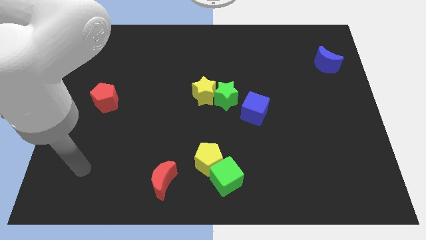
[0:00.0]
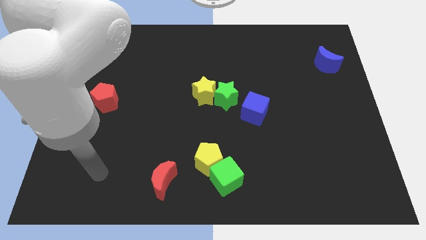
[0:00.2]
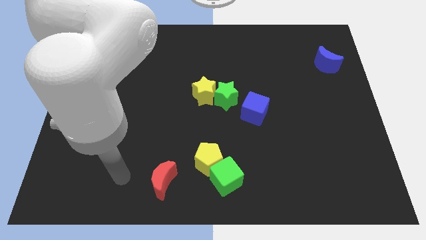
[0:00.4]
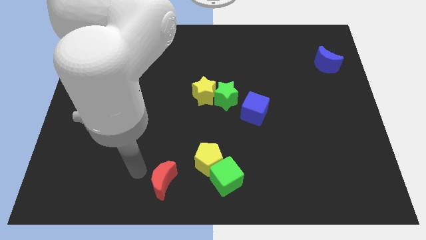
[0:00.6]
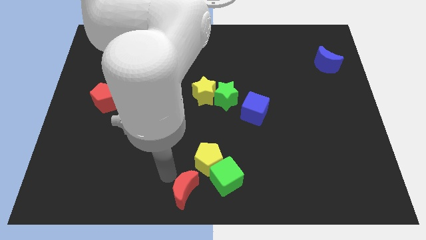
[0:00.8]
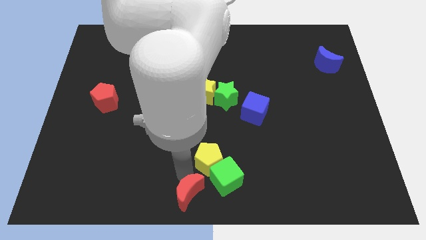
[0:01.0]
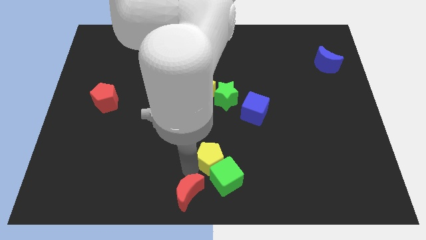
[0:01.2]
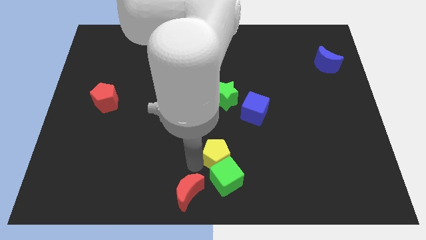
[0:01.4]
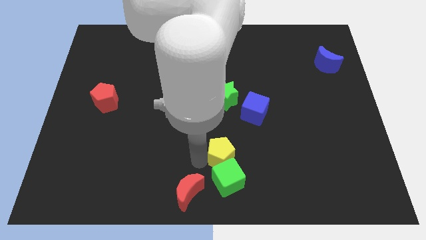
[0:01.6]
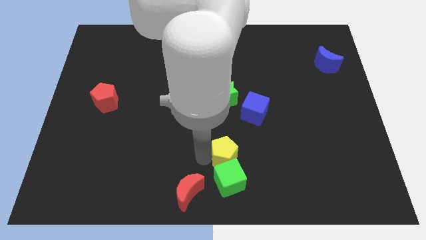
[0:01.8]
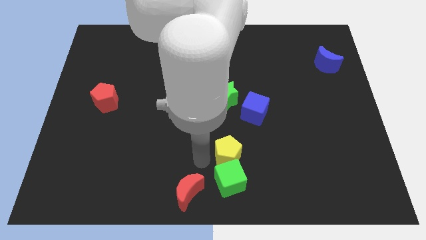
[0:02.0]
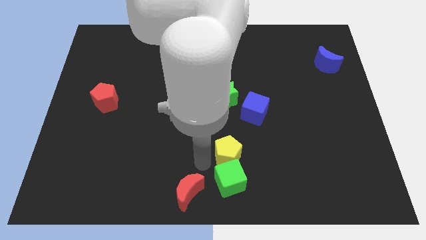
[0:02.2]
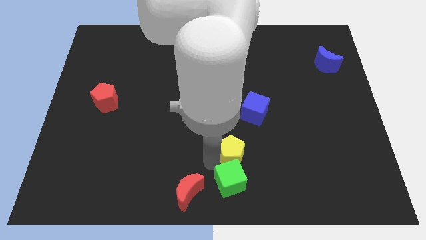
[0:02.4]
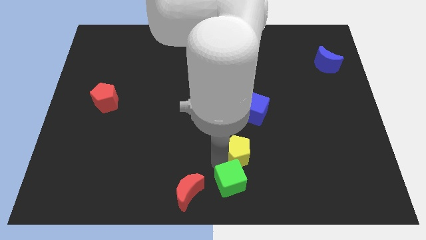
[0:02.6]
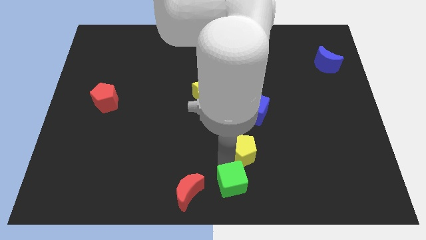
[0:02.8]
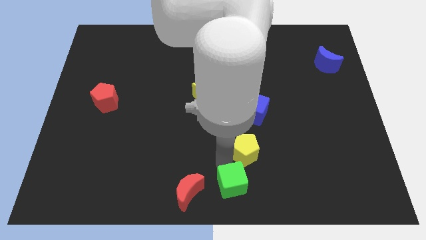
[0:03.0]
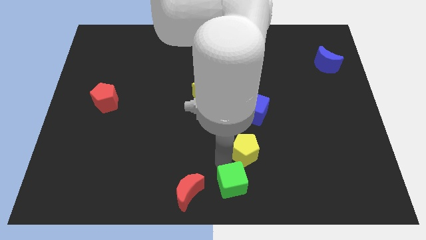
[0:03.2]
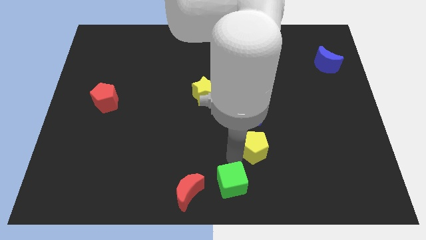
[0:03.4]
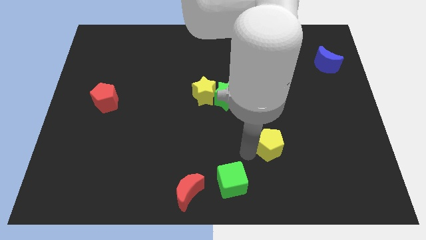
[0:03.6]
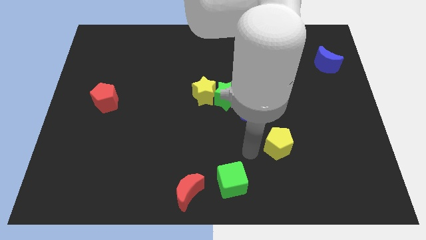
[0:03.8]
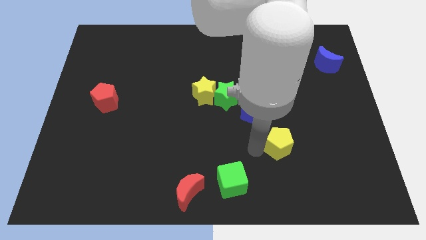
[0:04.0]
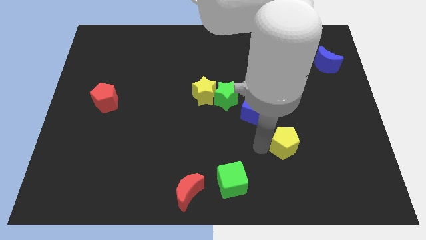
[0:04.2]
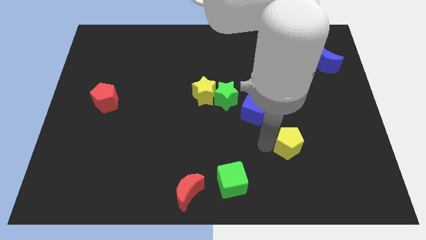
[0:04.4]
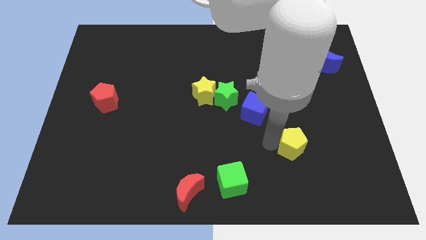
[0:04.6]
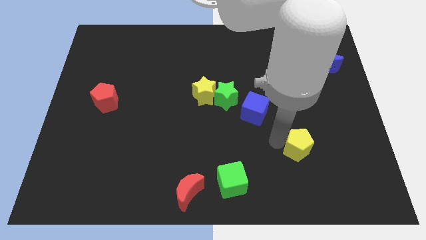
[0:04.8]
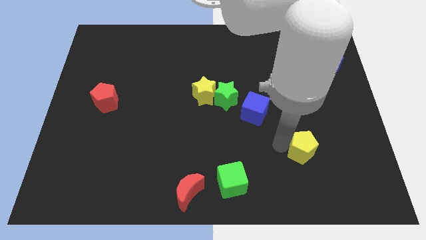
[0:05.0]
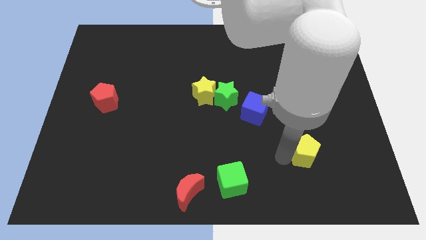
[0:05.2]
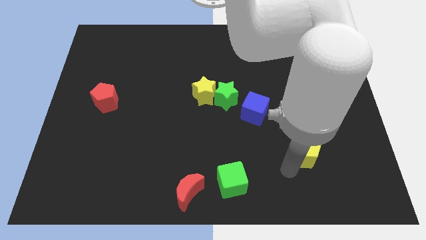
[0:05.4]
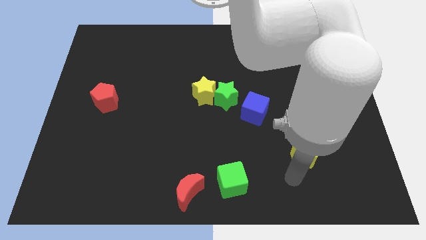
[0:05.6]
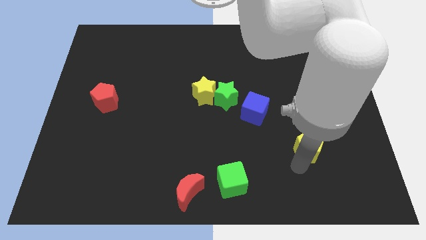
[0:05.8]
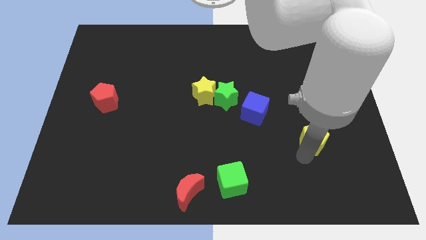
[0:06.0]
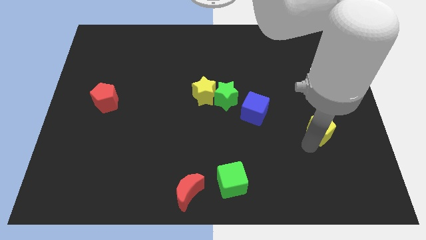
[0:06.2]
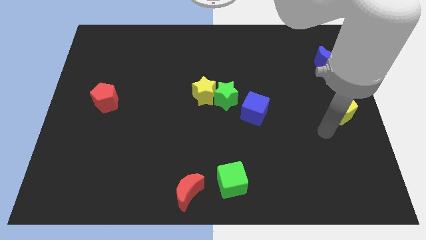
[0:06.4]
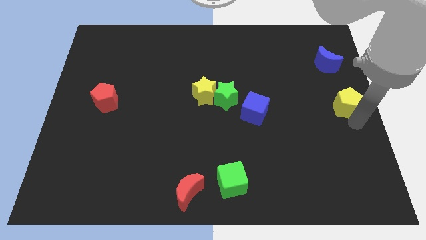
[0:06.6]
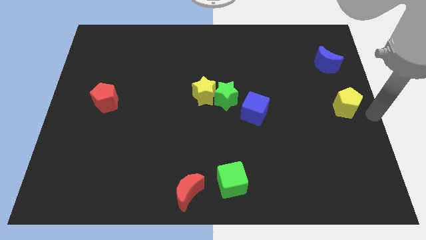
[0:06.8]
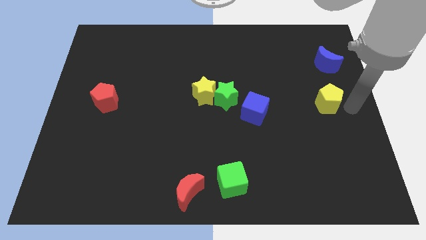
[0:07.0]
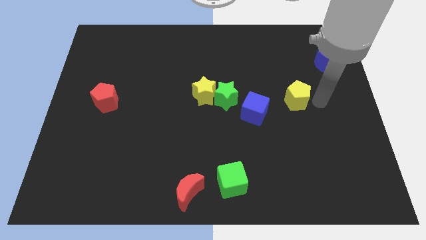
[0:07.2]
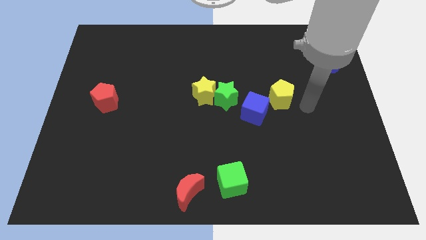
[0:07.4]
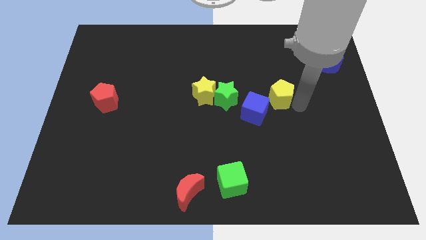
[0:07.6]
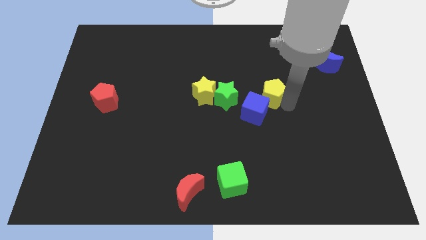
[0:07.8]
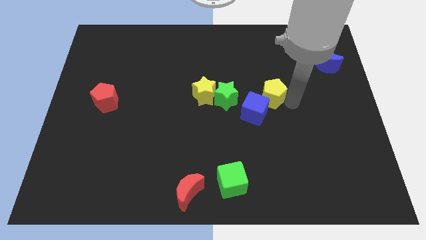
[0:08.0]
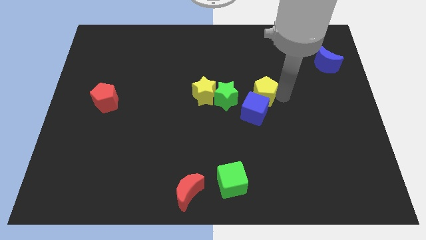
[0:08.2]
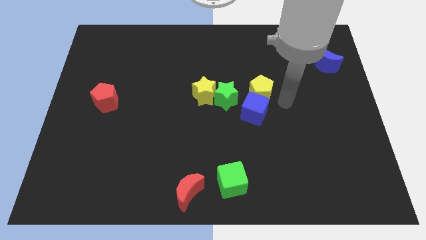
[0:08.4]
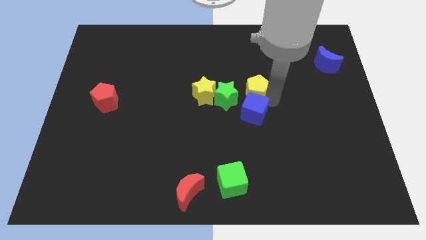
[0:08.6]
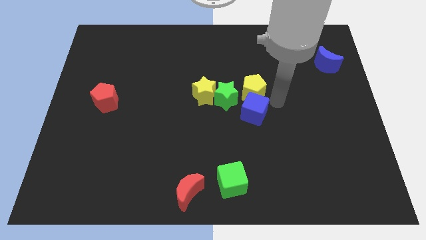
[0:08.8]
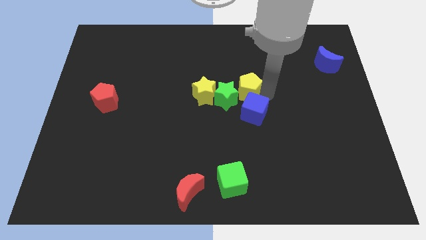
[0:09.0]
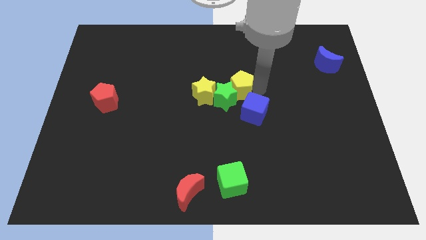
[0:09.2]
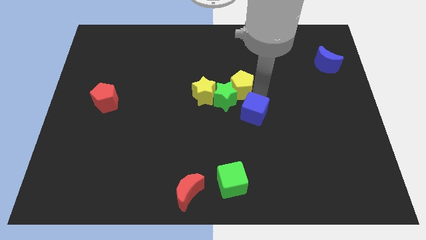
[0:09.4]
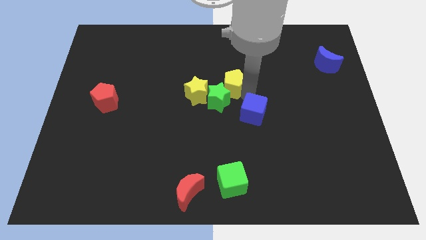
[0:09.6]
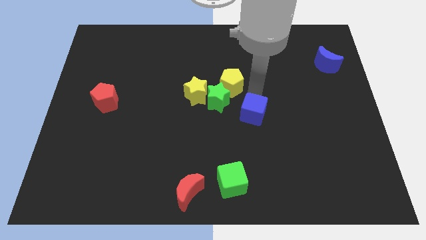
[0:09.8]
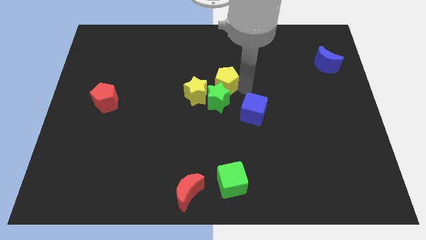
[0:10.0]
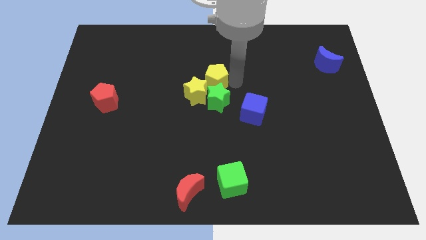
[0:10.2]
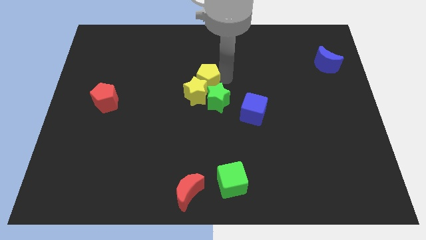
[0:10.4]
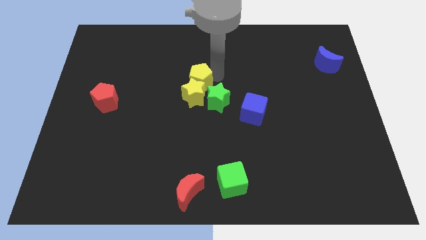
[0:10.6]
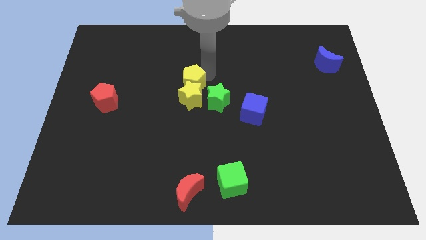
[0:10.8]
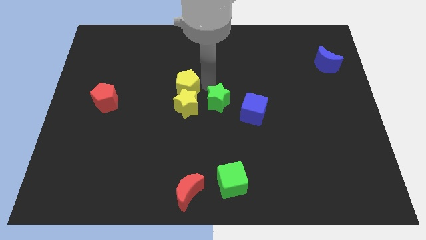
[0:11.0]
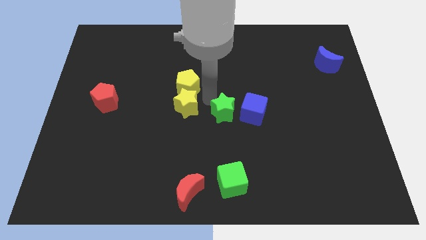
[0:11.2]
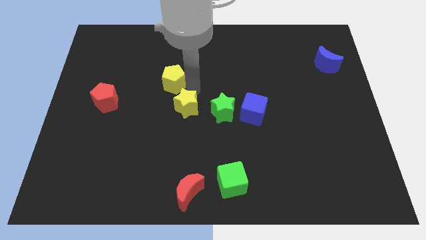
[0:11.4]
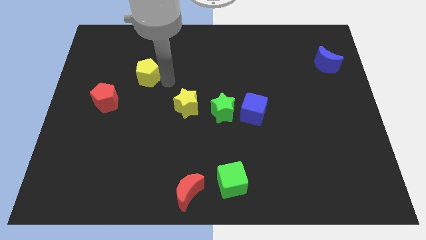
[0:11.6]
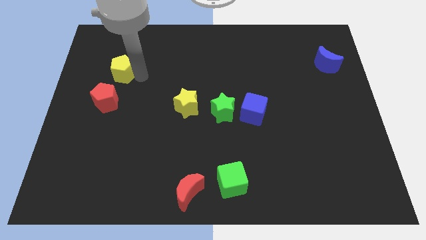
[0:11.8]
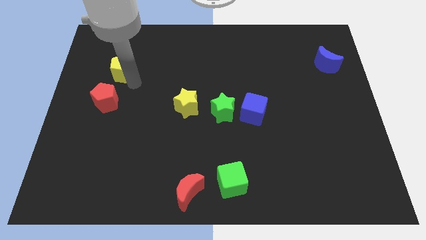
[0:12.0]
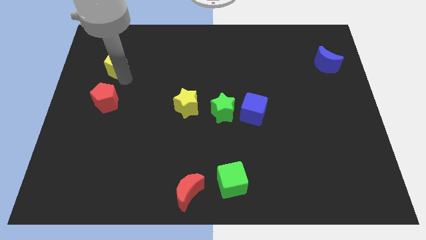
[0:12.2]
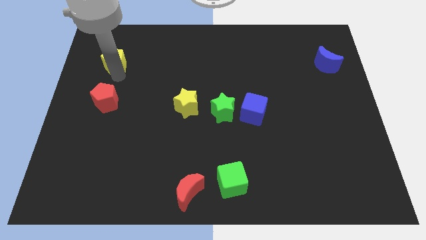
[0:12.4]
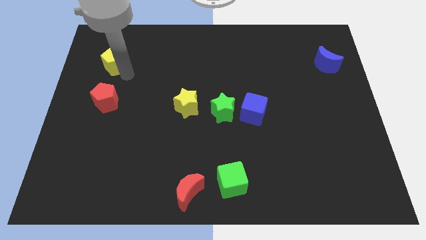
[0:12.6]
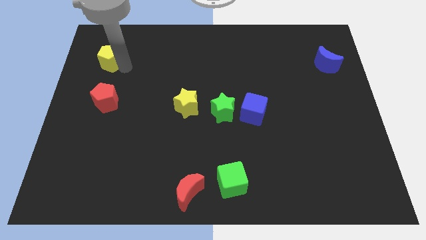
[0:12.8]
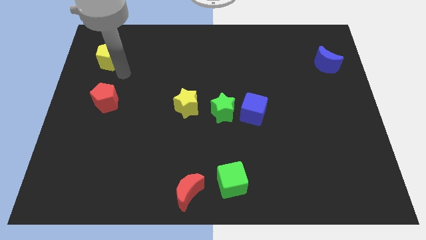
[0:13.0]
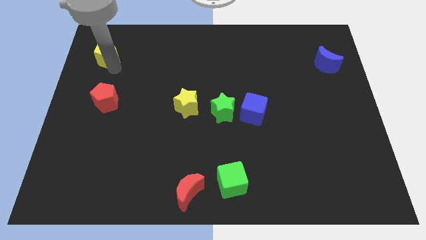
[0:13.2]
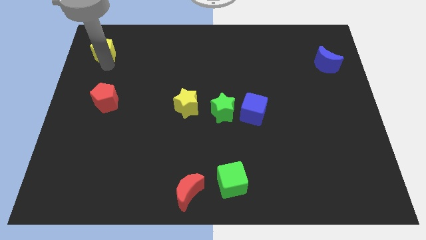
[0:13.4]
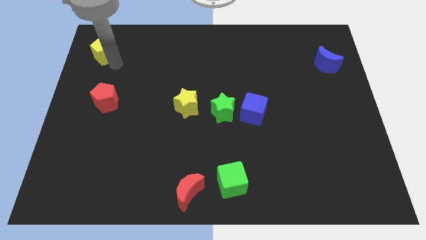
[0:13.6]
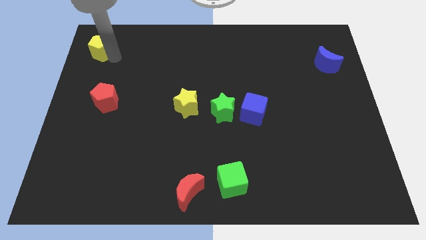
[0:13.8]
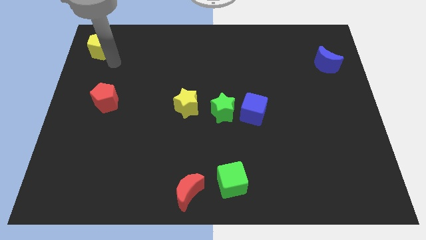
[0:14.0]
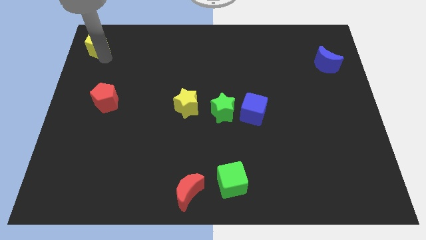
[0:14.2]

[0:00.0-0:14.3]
slide the yellow pentagon to the top left
